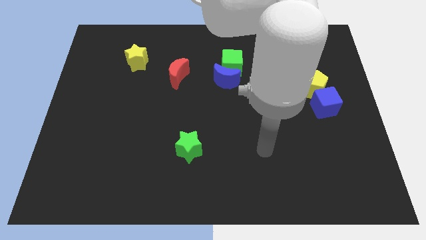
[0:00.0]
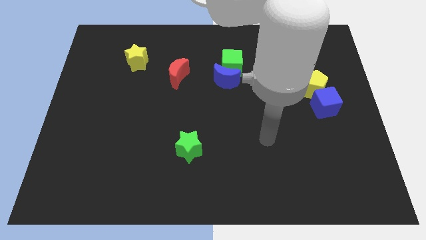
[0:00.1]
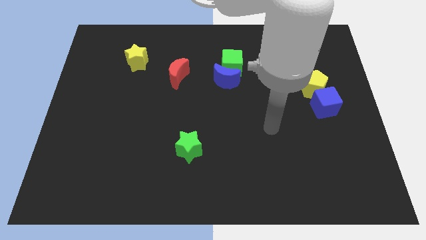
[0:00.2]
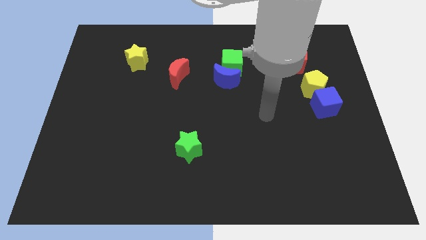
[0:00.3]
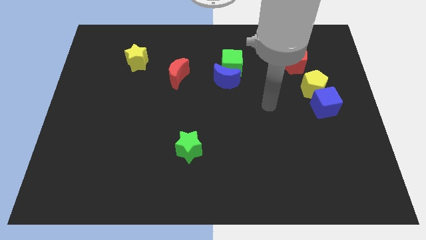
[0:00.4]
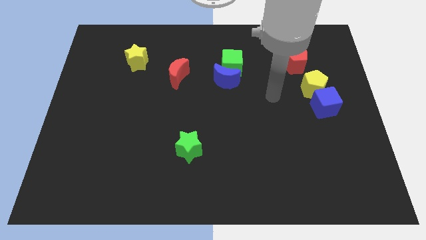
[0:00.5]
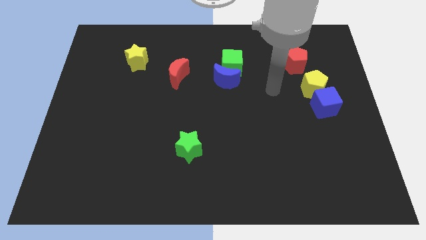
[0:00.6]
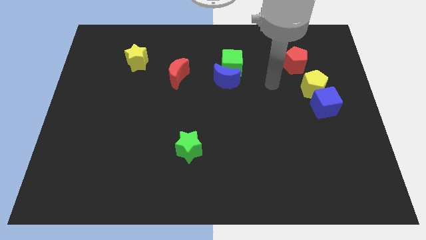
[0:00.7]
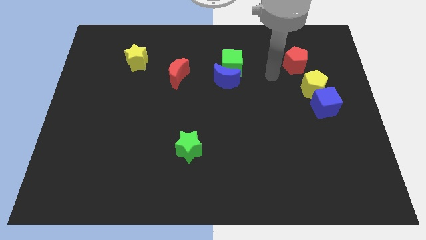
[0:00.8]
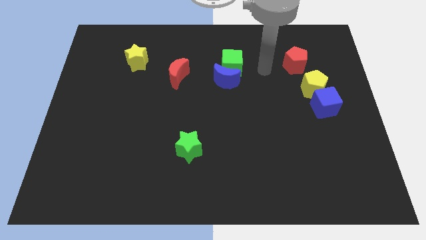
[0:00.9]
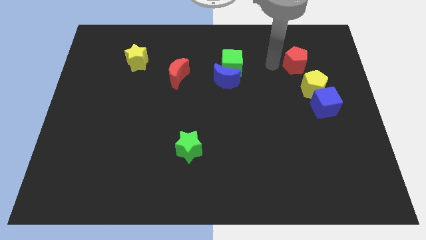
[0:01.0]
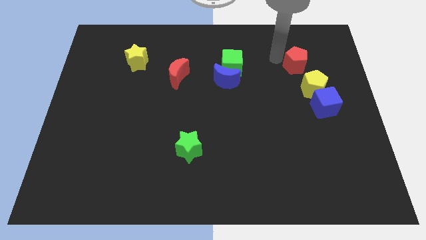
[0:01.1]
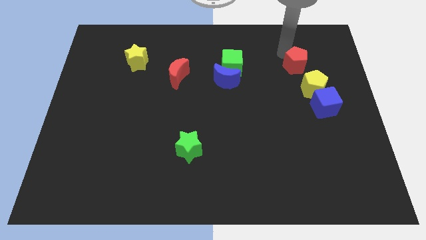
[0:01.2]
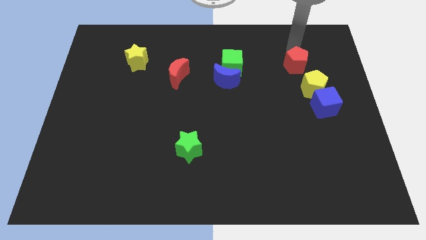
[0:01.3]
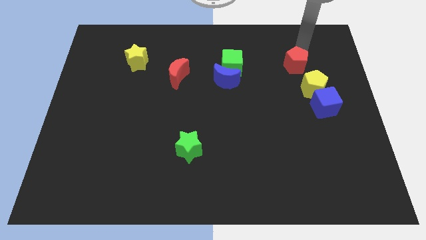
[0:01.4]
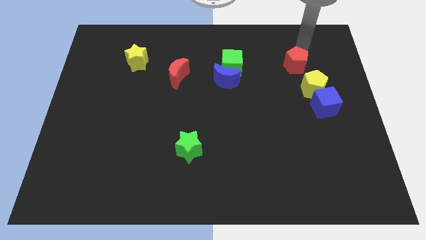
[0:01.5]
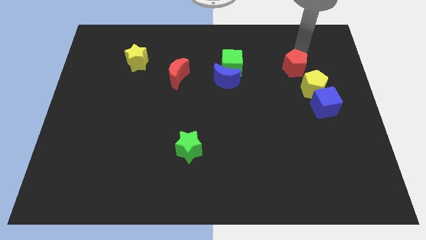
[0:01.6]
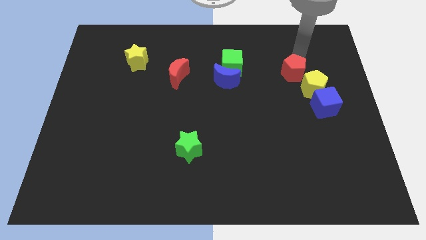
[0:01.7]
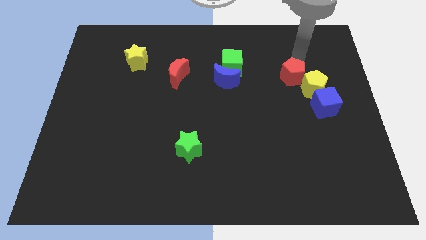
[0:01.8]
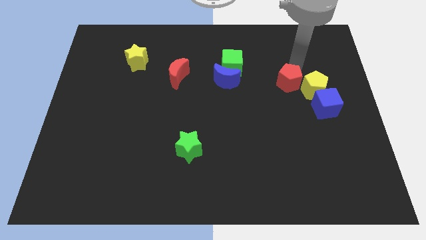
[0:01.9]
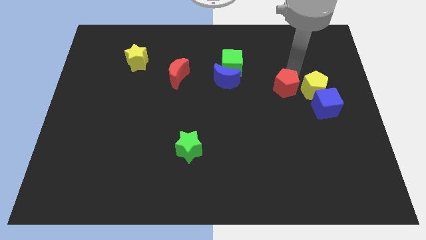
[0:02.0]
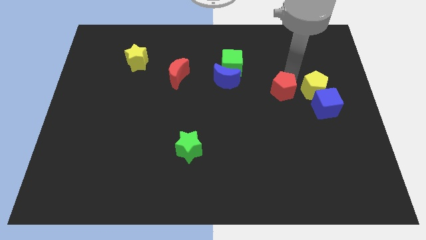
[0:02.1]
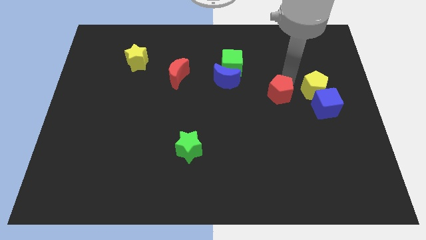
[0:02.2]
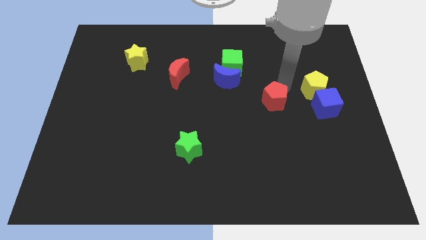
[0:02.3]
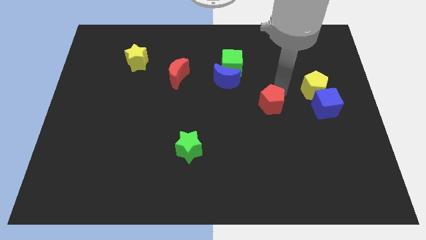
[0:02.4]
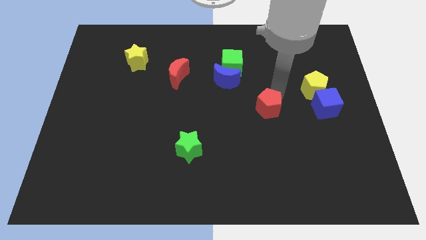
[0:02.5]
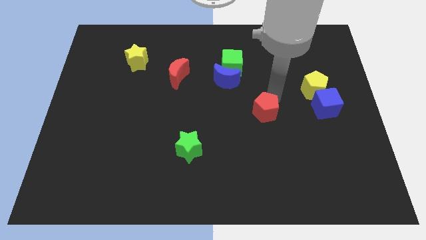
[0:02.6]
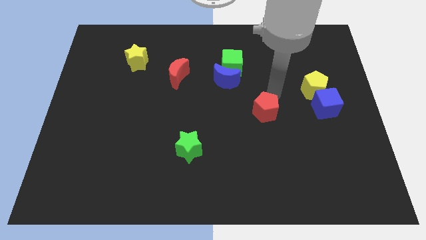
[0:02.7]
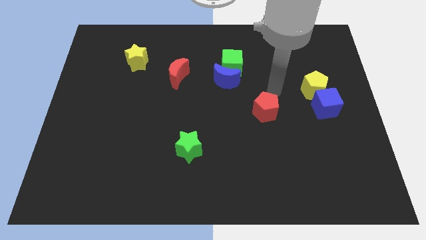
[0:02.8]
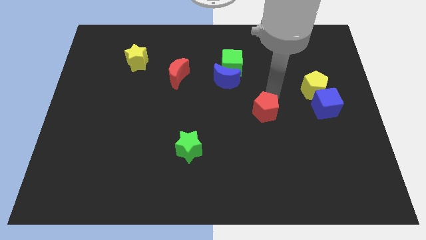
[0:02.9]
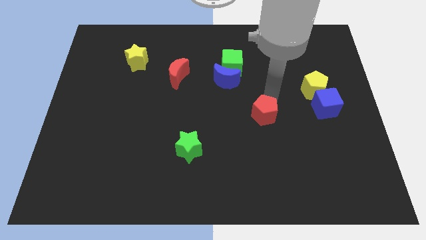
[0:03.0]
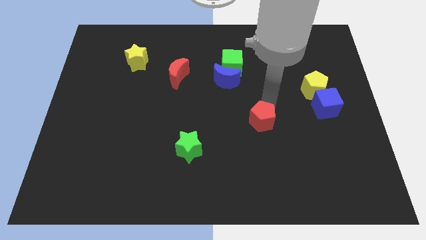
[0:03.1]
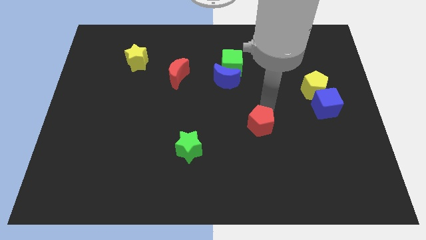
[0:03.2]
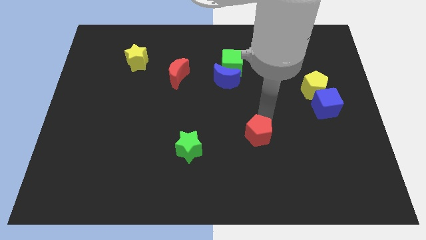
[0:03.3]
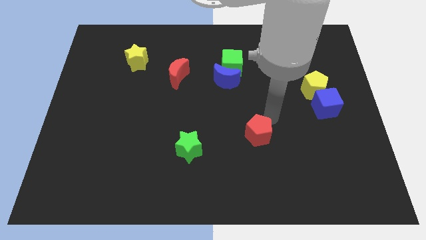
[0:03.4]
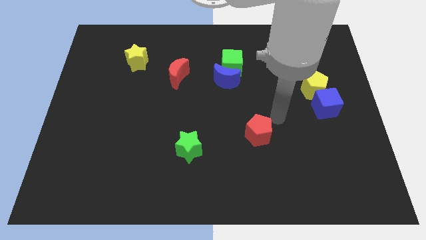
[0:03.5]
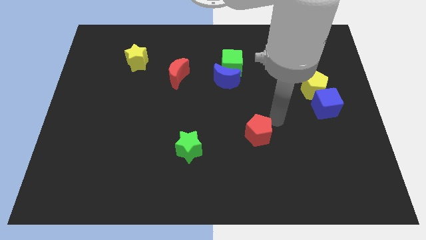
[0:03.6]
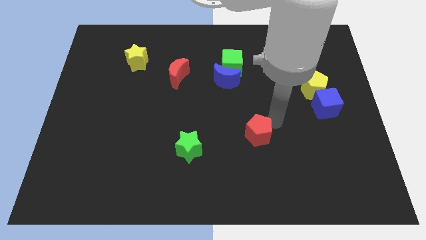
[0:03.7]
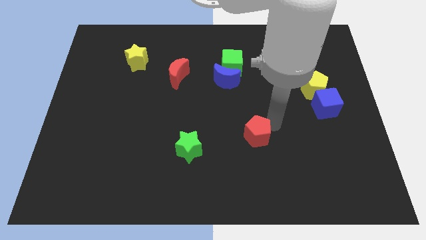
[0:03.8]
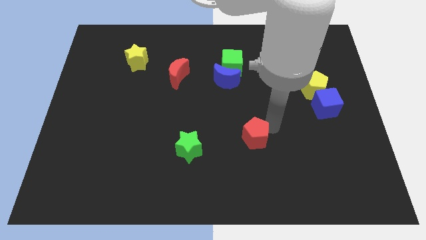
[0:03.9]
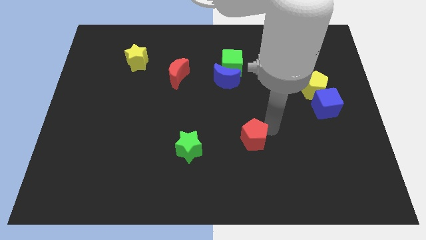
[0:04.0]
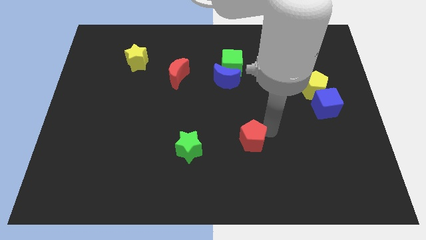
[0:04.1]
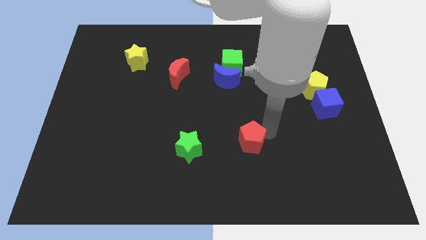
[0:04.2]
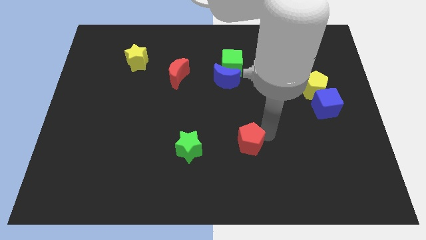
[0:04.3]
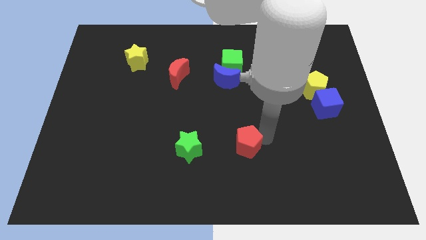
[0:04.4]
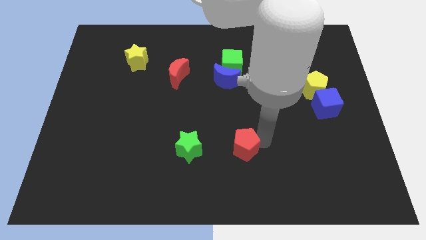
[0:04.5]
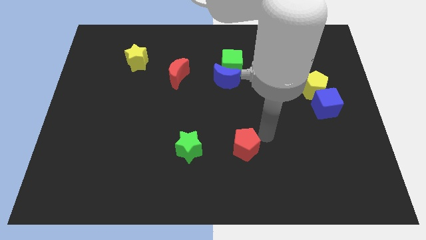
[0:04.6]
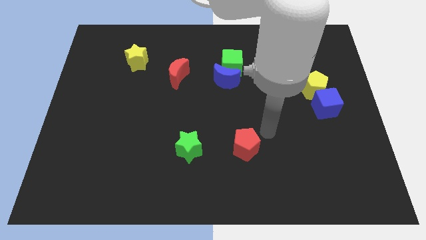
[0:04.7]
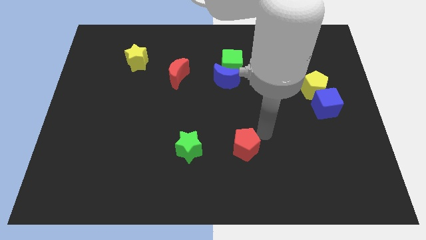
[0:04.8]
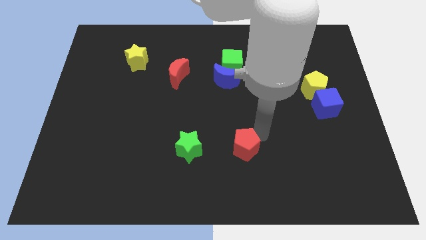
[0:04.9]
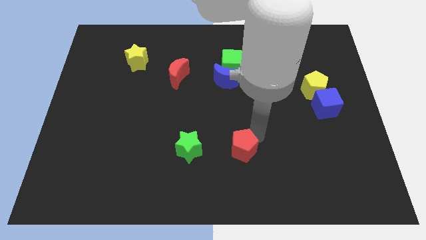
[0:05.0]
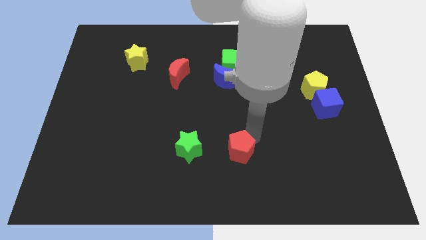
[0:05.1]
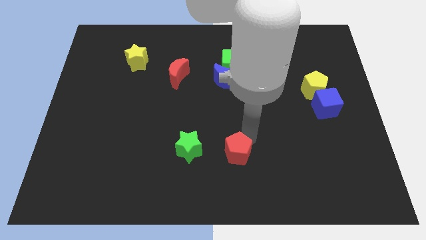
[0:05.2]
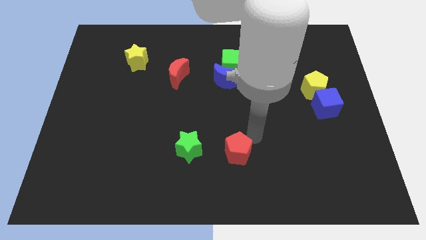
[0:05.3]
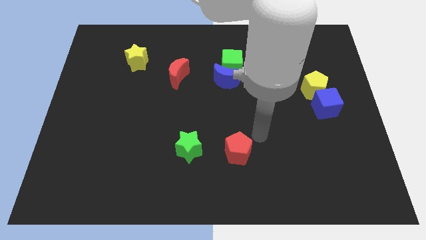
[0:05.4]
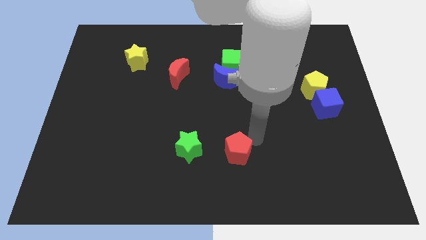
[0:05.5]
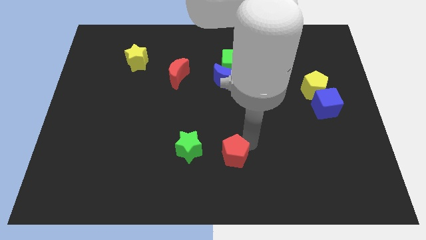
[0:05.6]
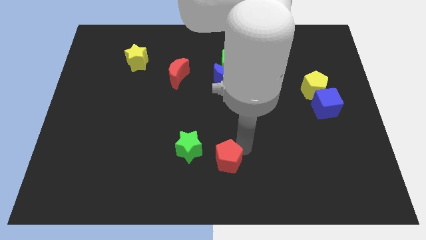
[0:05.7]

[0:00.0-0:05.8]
push the red pentagon to the bottom right of the green star

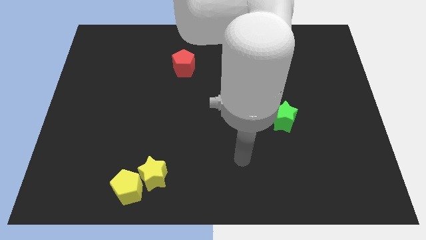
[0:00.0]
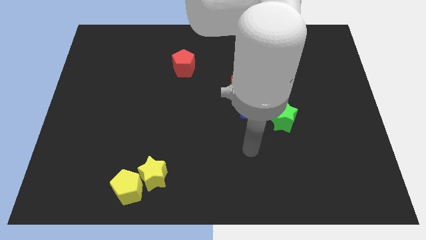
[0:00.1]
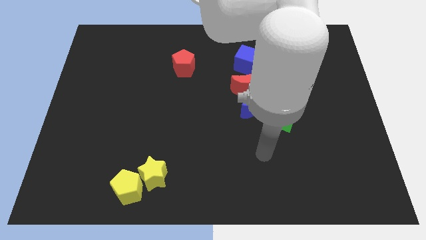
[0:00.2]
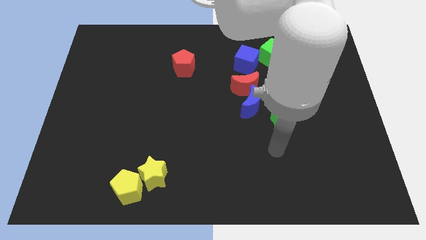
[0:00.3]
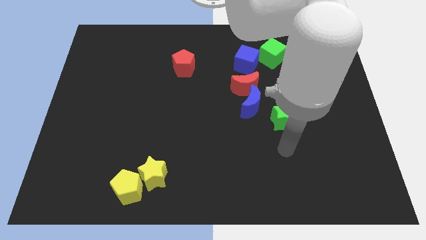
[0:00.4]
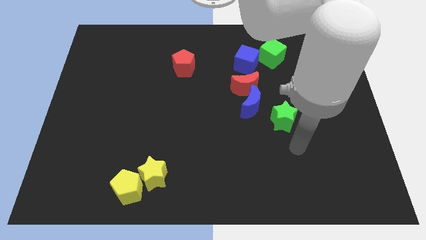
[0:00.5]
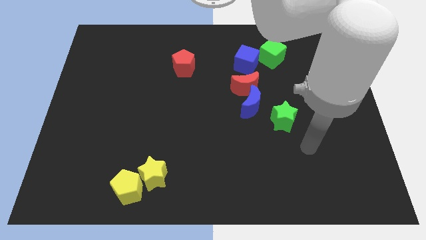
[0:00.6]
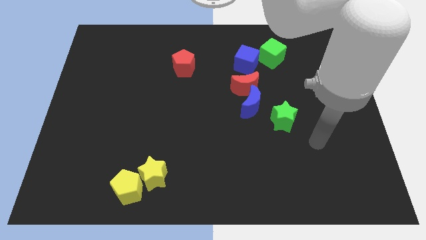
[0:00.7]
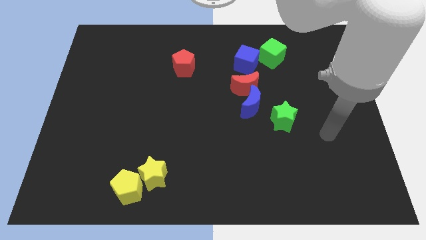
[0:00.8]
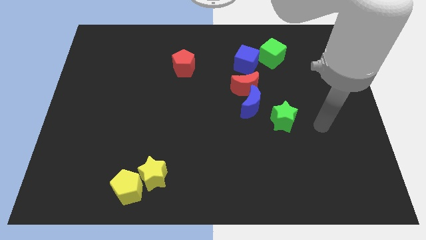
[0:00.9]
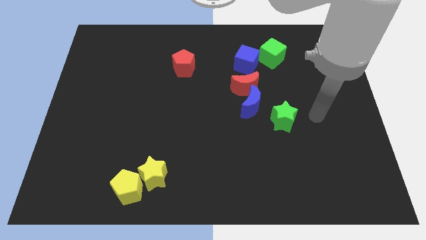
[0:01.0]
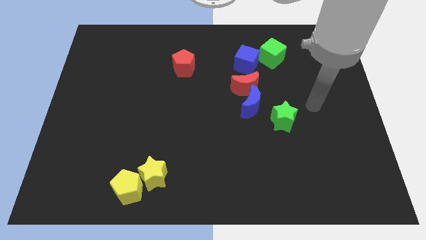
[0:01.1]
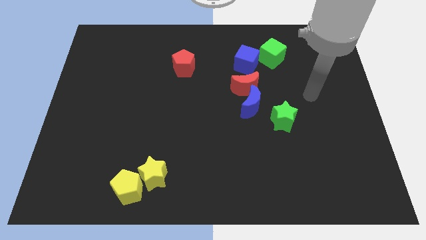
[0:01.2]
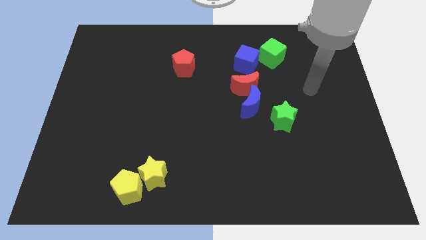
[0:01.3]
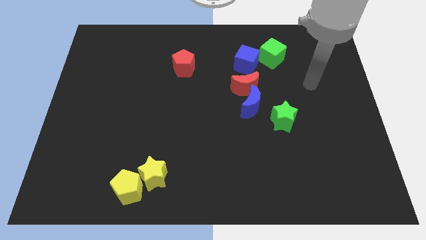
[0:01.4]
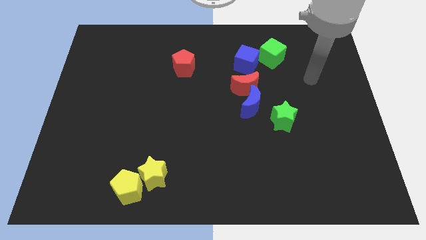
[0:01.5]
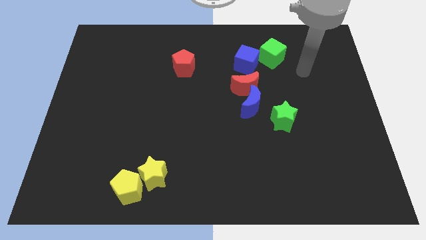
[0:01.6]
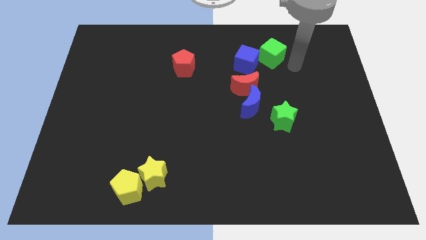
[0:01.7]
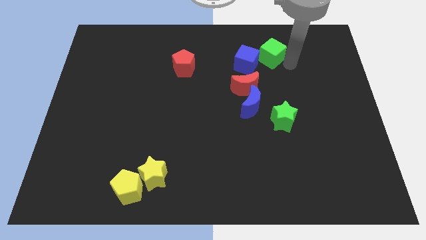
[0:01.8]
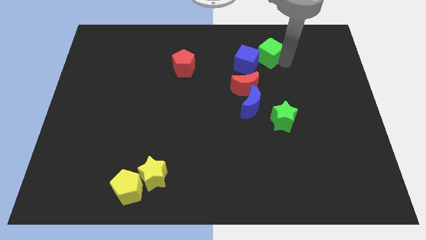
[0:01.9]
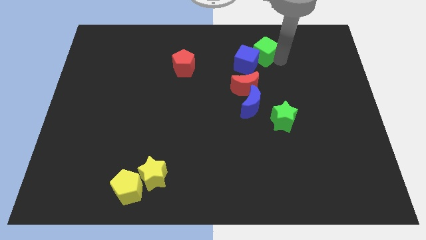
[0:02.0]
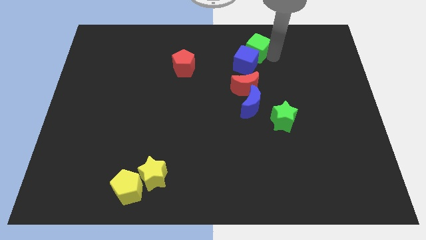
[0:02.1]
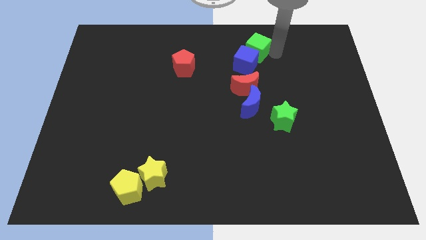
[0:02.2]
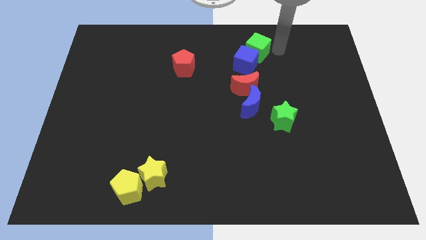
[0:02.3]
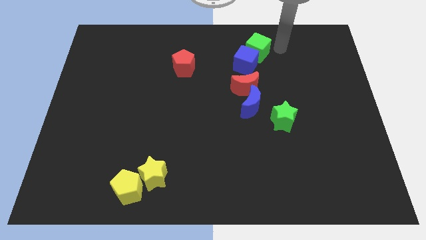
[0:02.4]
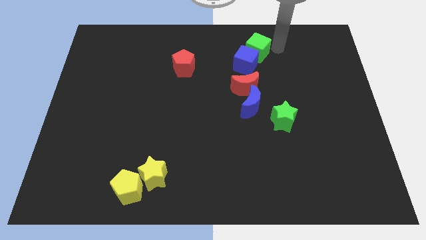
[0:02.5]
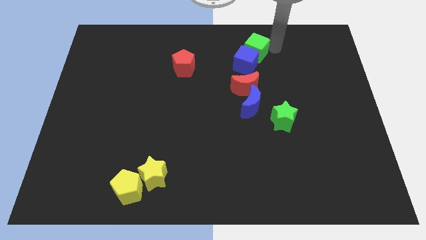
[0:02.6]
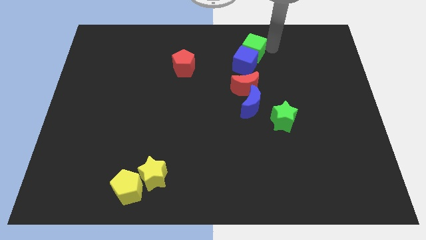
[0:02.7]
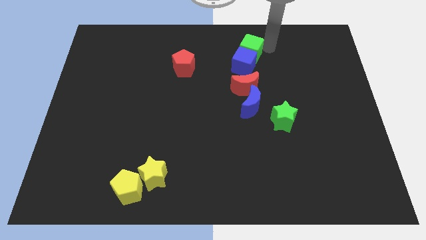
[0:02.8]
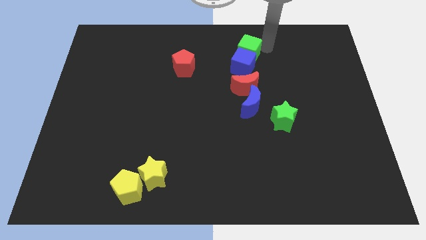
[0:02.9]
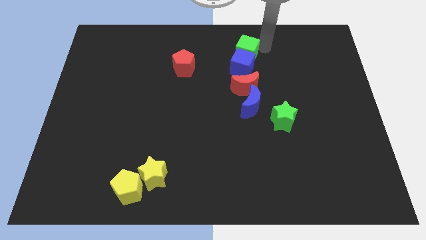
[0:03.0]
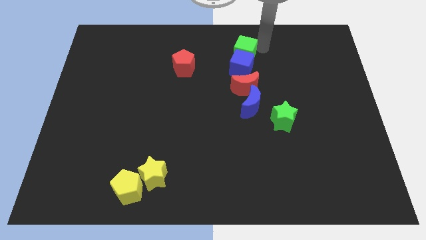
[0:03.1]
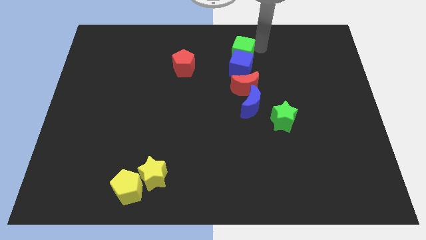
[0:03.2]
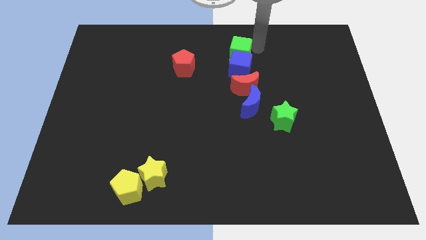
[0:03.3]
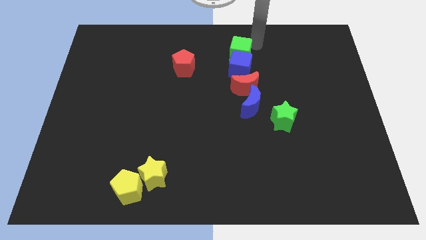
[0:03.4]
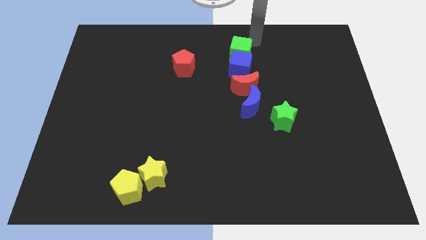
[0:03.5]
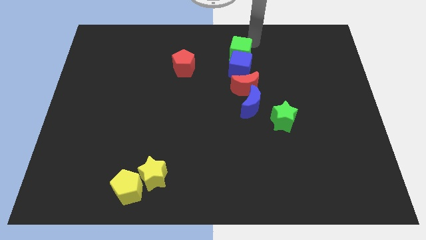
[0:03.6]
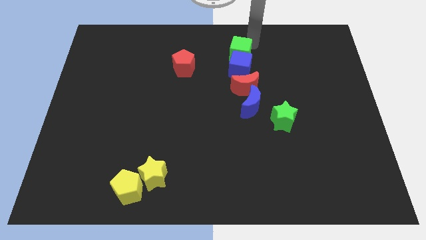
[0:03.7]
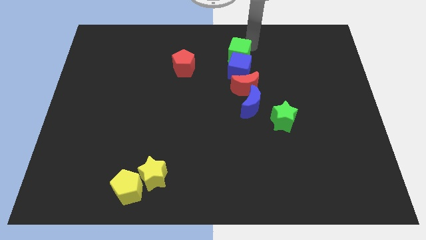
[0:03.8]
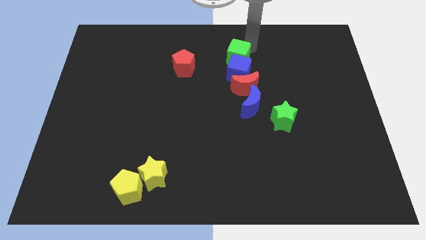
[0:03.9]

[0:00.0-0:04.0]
move the green cube just right of the red pentagon
